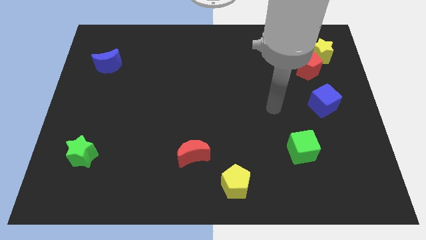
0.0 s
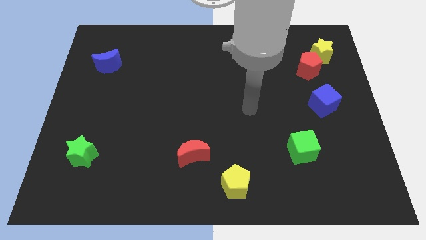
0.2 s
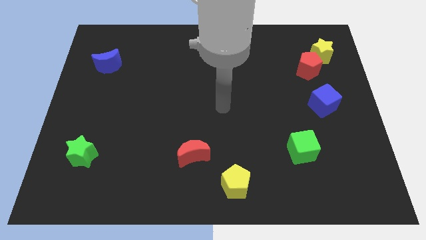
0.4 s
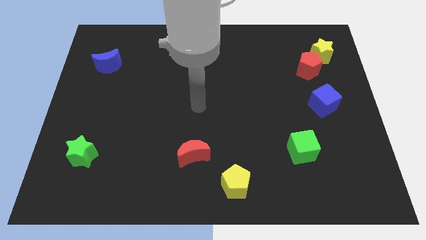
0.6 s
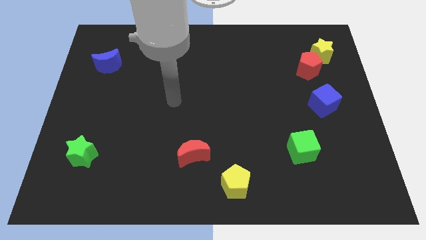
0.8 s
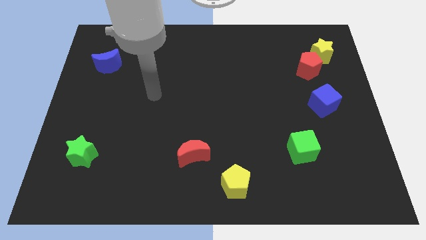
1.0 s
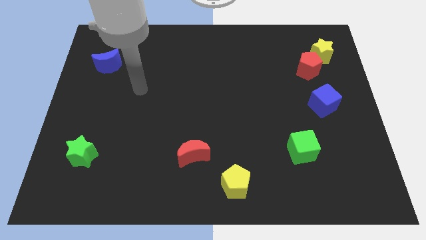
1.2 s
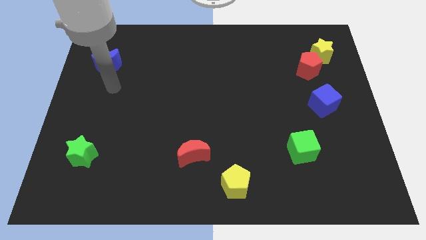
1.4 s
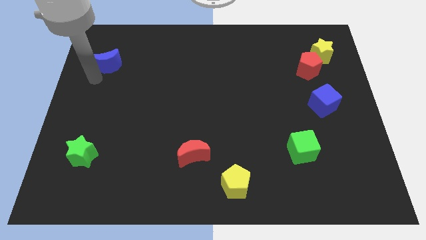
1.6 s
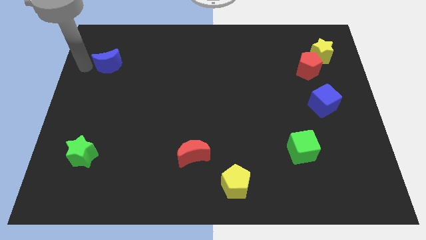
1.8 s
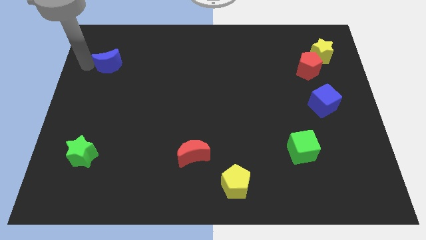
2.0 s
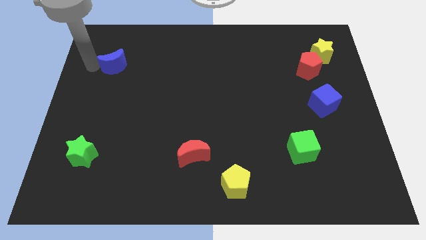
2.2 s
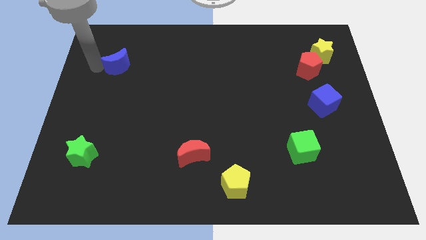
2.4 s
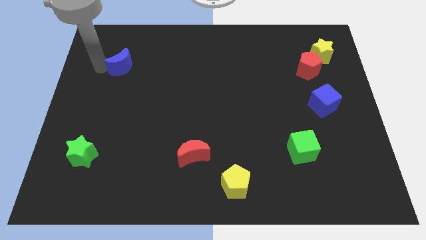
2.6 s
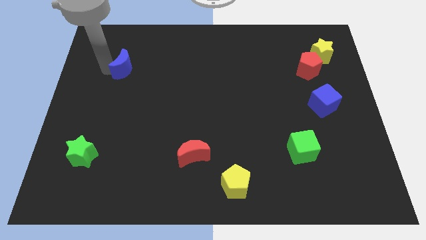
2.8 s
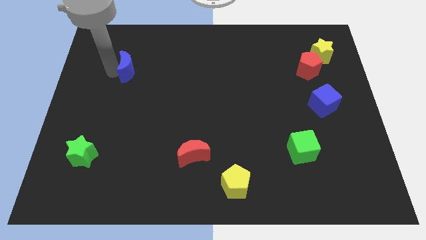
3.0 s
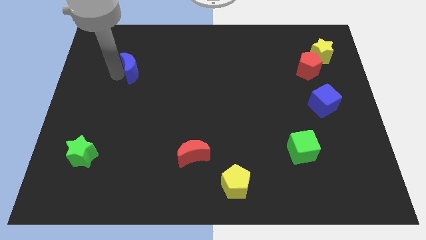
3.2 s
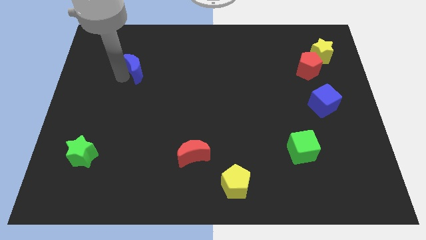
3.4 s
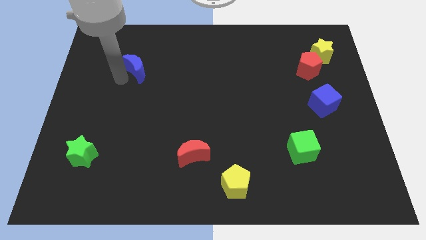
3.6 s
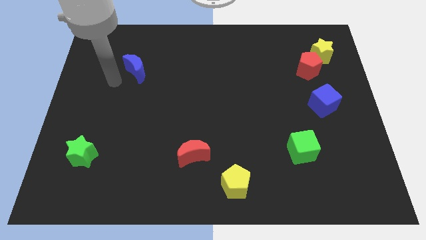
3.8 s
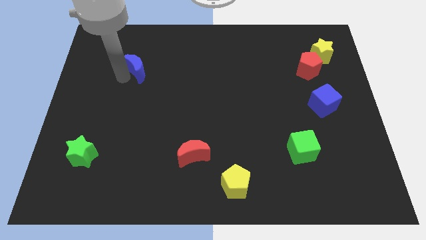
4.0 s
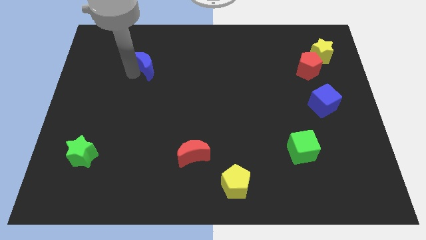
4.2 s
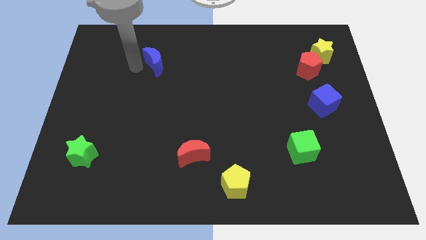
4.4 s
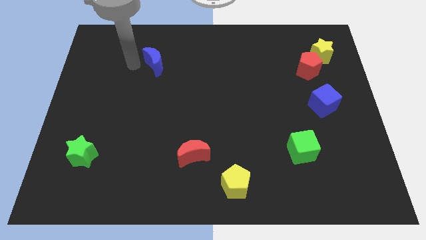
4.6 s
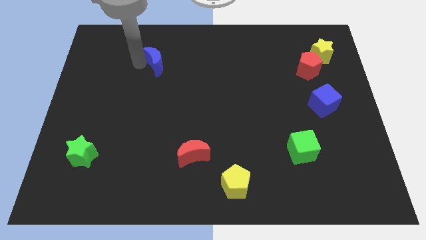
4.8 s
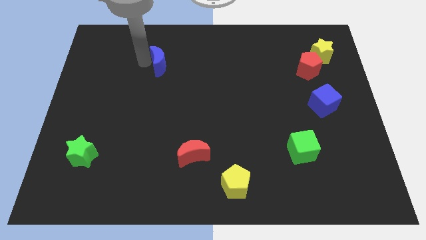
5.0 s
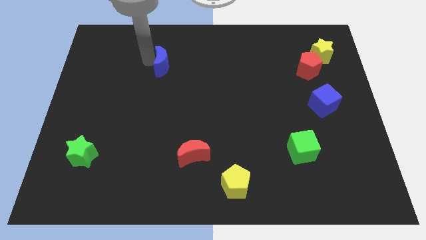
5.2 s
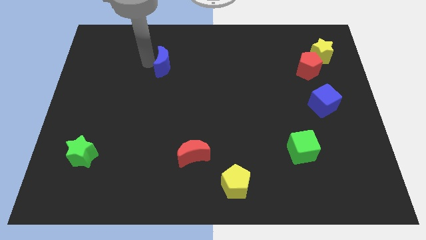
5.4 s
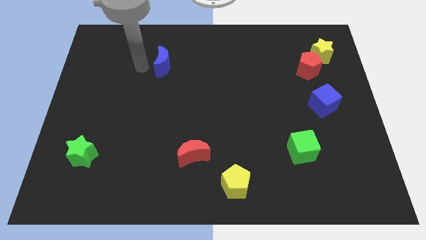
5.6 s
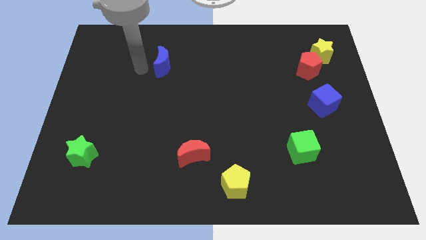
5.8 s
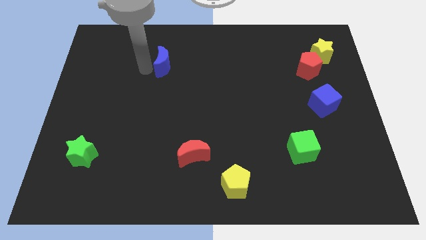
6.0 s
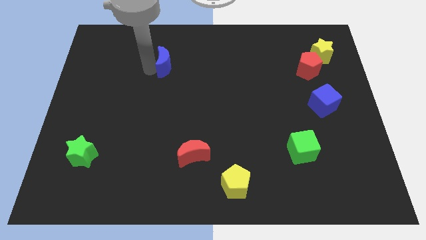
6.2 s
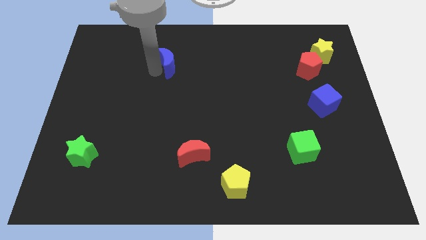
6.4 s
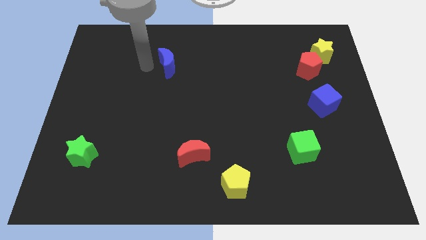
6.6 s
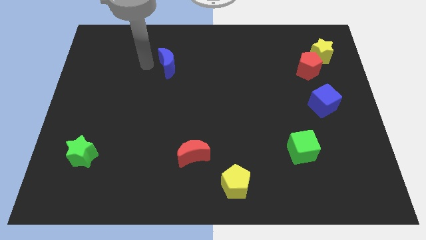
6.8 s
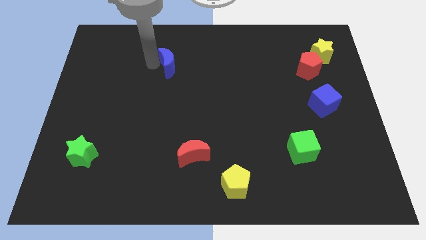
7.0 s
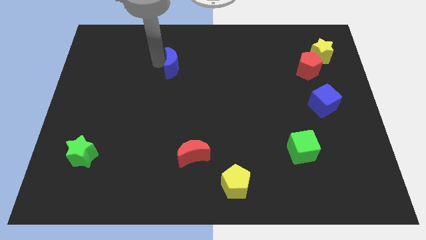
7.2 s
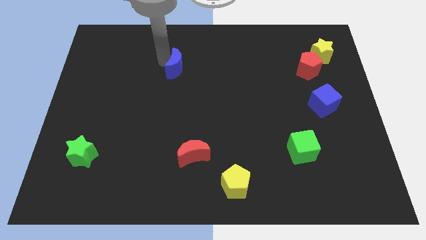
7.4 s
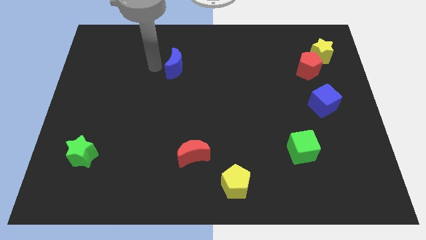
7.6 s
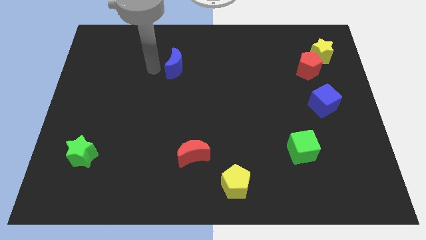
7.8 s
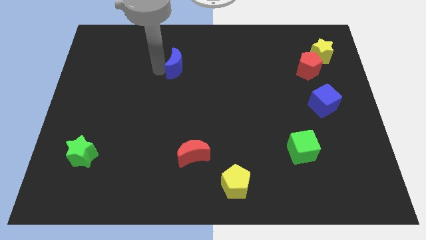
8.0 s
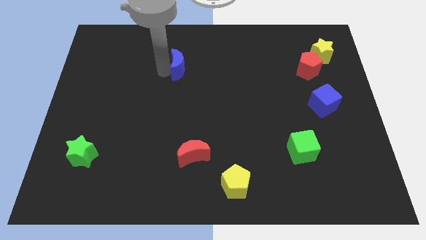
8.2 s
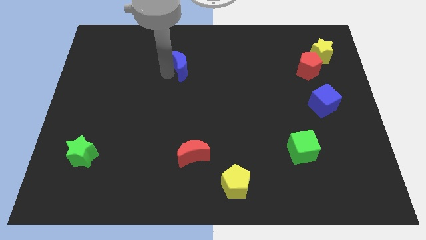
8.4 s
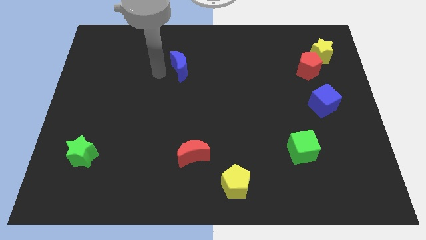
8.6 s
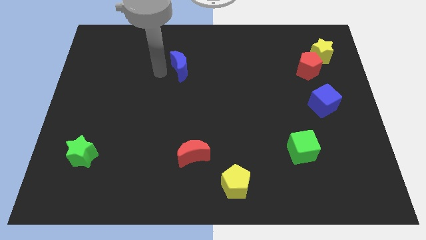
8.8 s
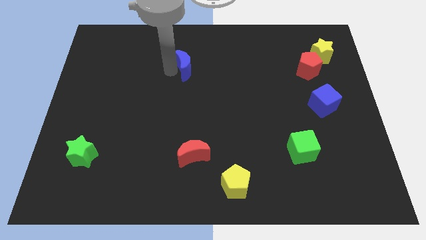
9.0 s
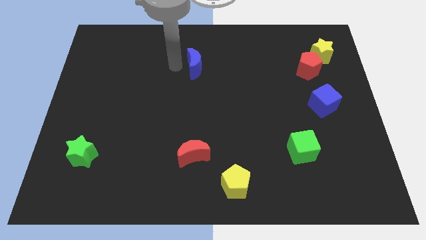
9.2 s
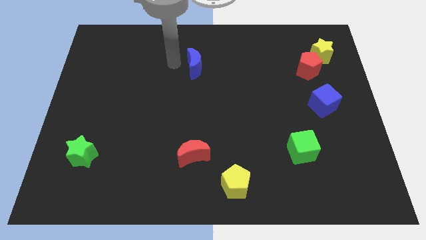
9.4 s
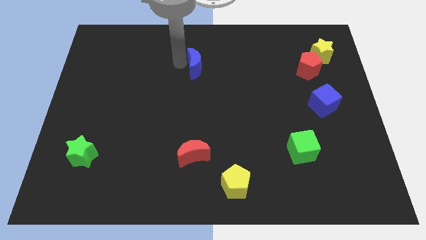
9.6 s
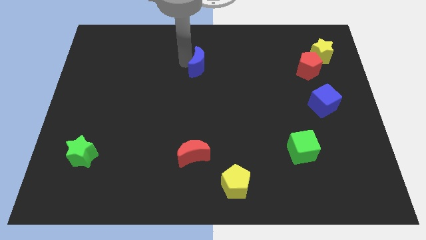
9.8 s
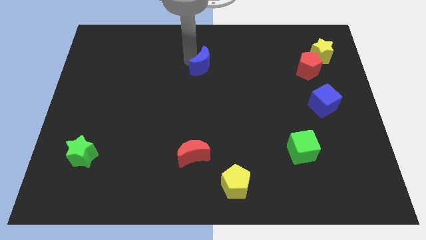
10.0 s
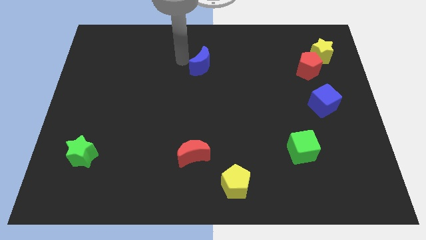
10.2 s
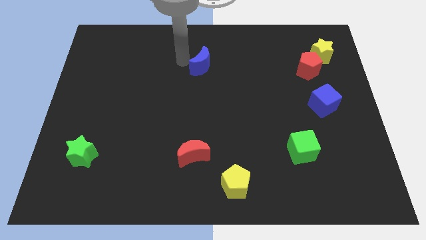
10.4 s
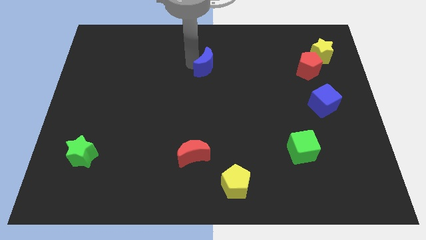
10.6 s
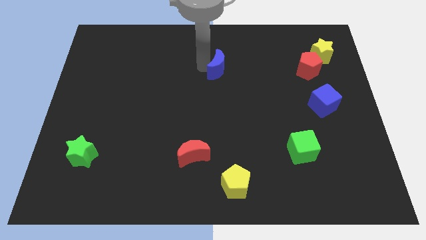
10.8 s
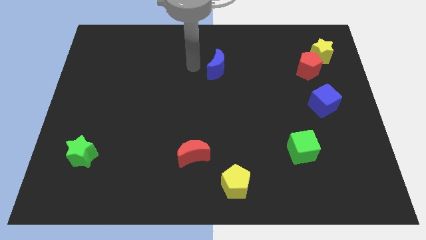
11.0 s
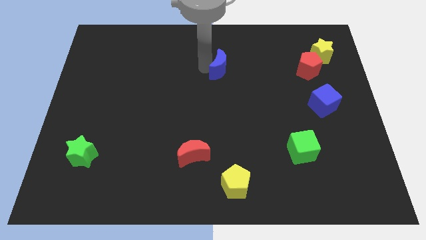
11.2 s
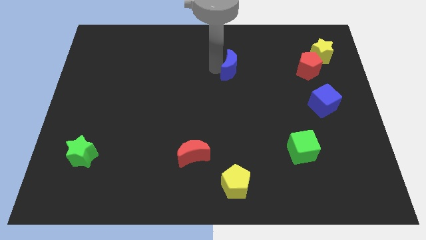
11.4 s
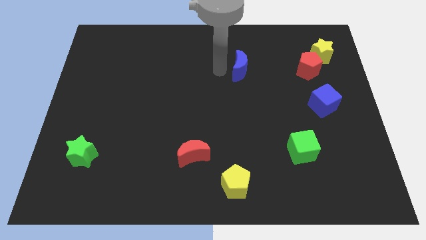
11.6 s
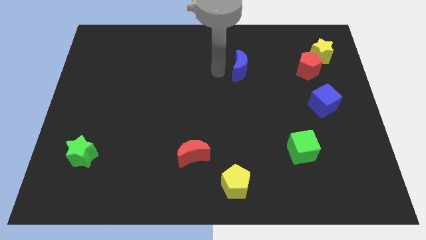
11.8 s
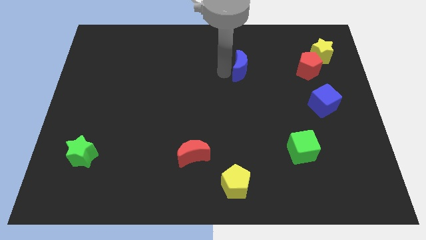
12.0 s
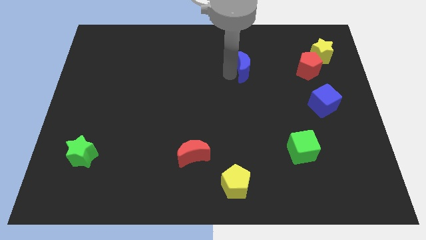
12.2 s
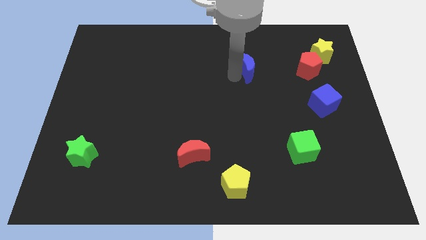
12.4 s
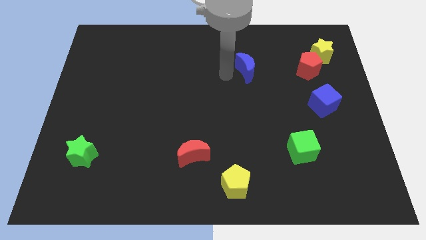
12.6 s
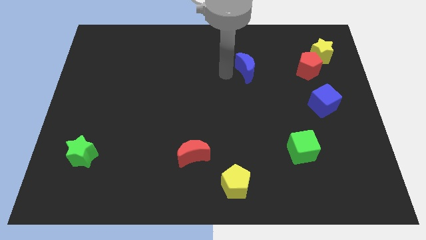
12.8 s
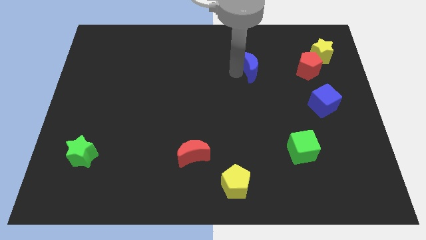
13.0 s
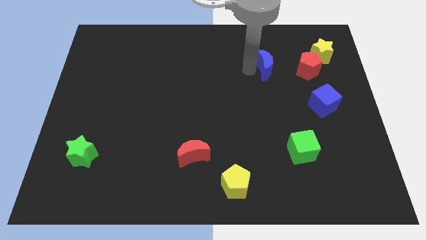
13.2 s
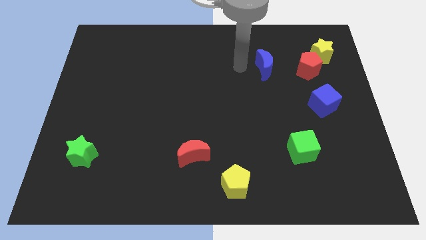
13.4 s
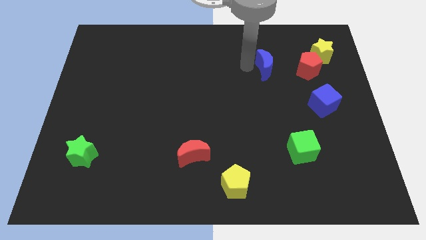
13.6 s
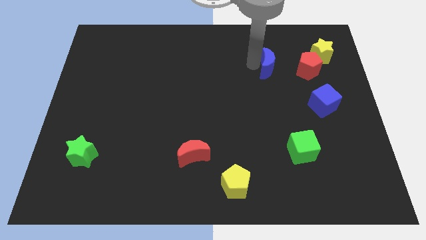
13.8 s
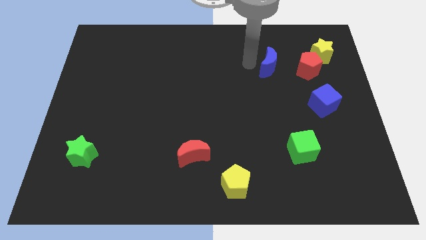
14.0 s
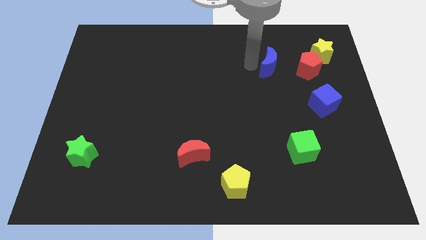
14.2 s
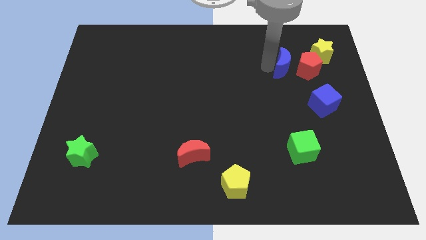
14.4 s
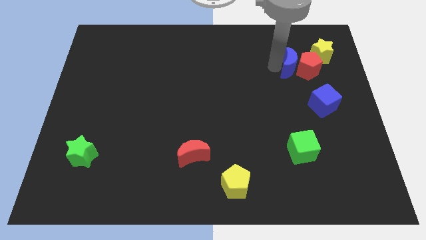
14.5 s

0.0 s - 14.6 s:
move the blue moon to the bottom left of the yellow star
